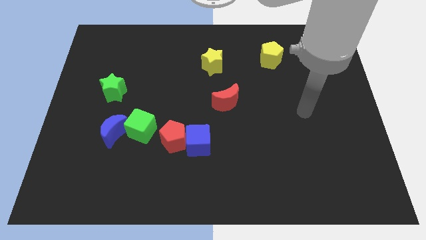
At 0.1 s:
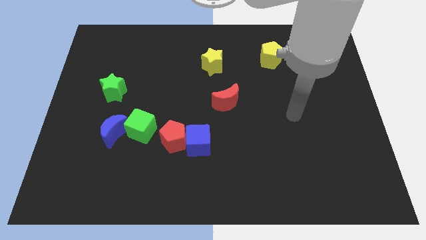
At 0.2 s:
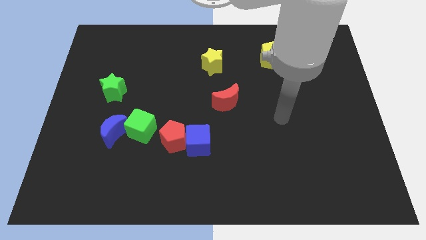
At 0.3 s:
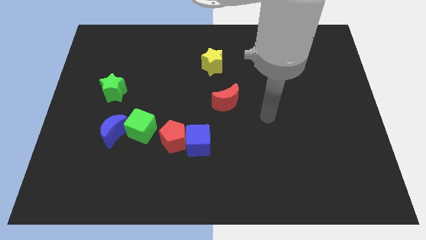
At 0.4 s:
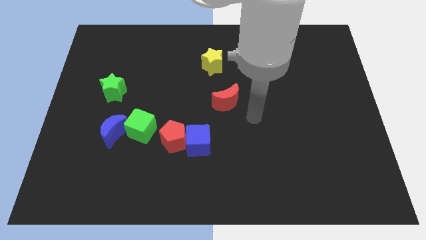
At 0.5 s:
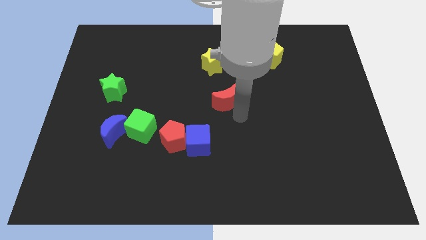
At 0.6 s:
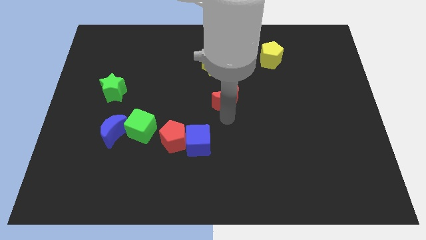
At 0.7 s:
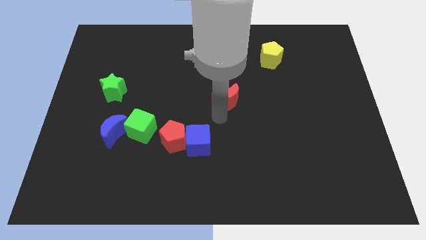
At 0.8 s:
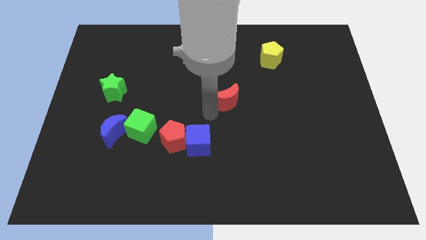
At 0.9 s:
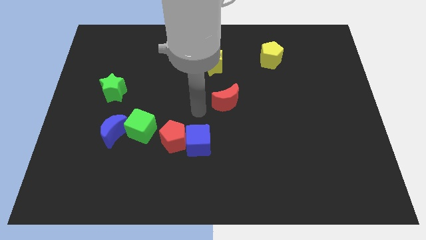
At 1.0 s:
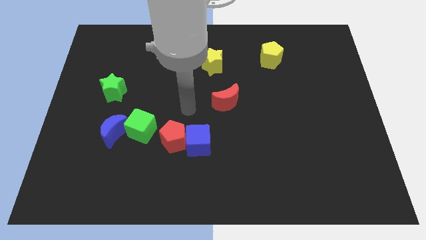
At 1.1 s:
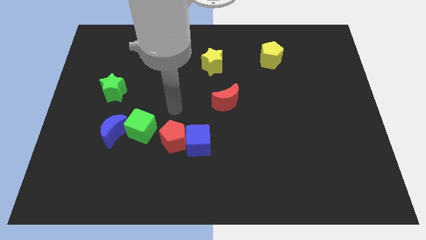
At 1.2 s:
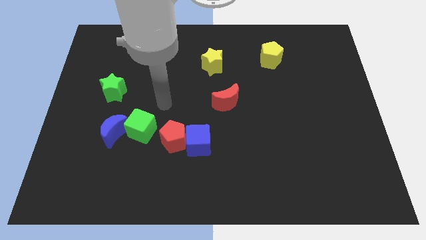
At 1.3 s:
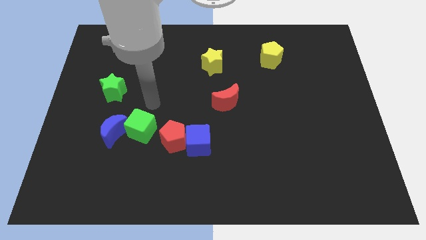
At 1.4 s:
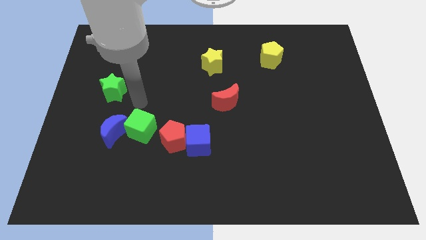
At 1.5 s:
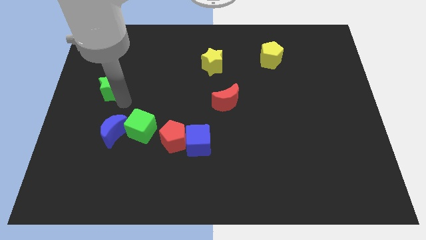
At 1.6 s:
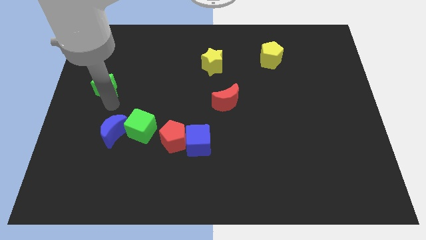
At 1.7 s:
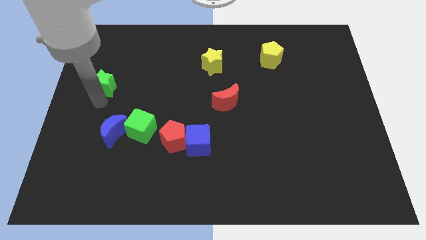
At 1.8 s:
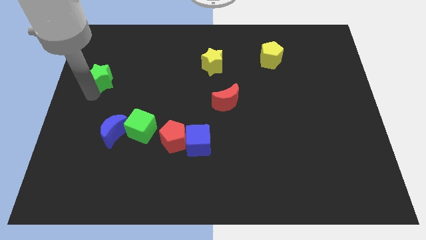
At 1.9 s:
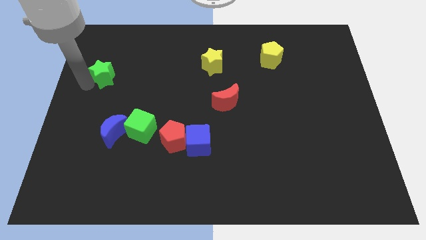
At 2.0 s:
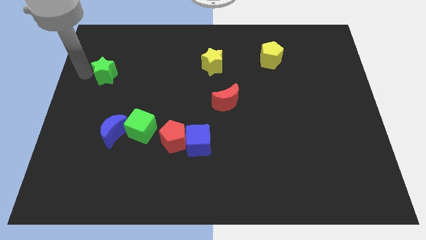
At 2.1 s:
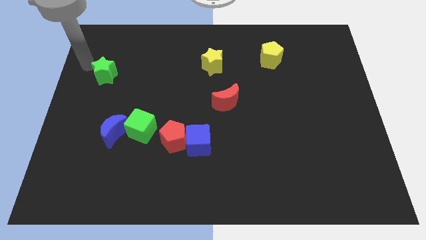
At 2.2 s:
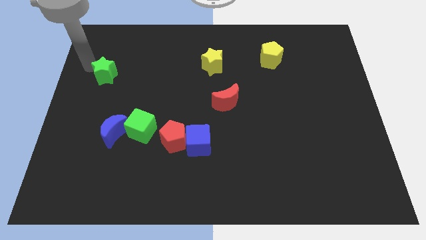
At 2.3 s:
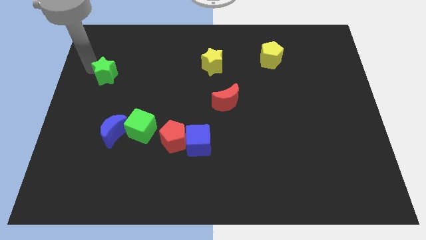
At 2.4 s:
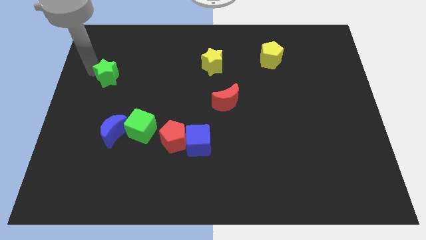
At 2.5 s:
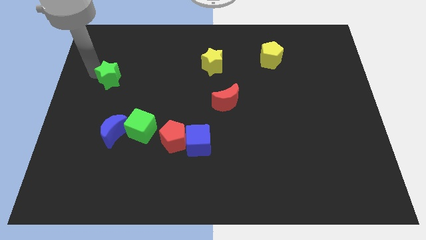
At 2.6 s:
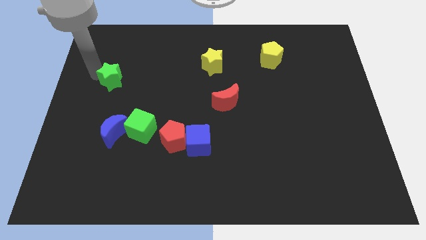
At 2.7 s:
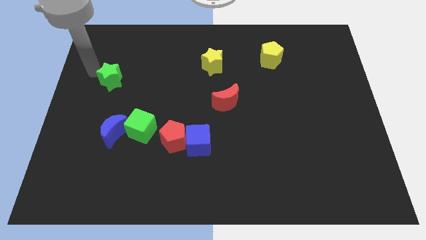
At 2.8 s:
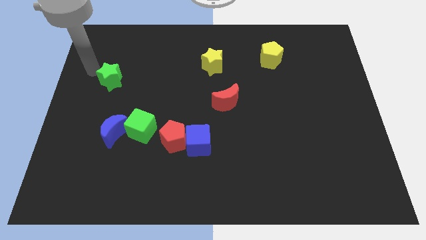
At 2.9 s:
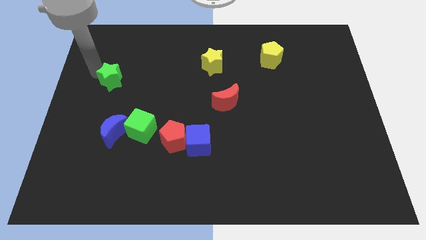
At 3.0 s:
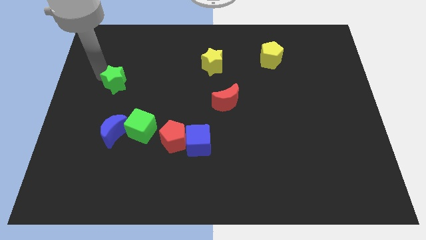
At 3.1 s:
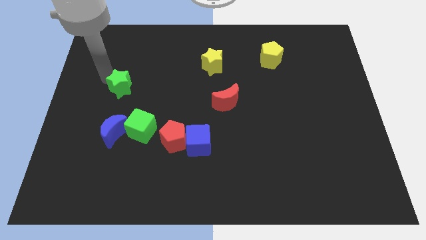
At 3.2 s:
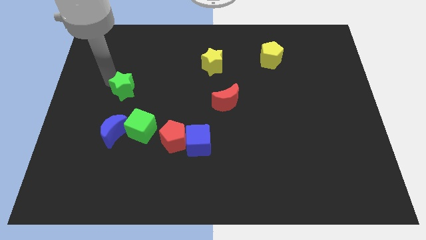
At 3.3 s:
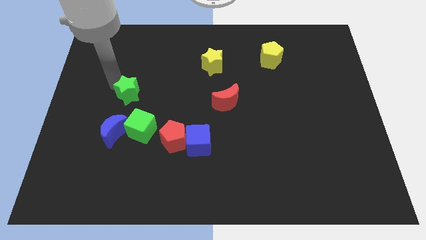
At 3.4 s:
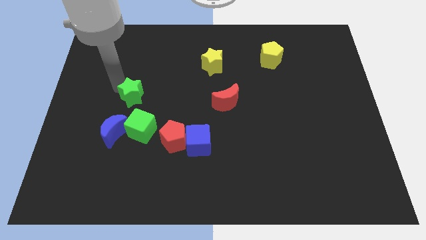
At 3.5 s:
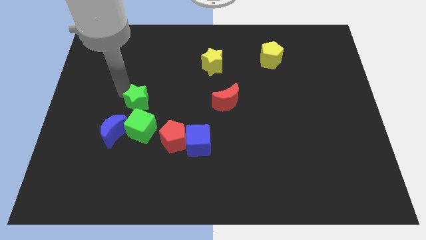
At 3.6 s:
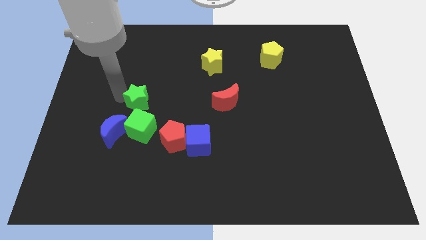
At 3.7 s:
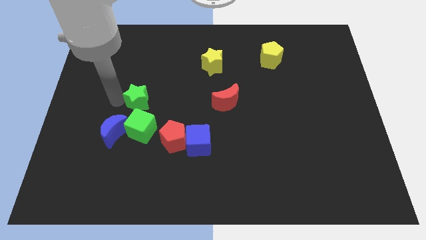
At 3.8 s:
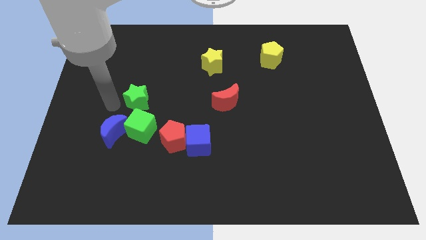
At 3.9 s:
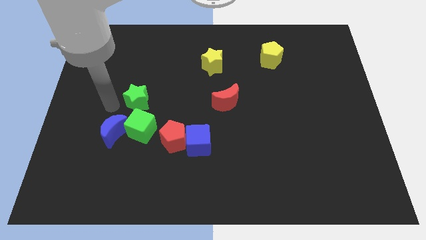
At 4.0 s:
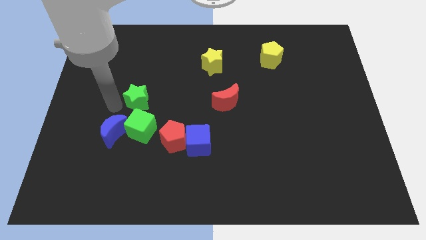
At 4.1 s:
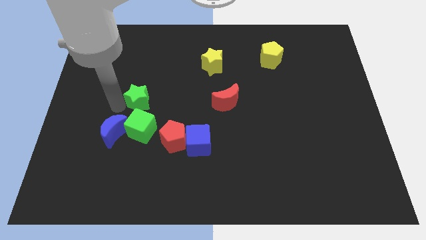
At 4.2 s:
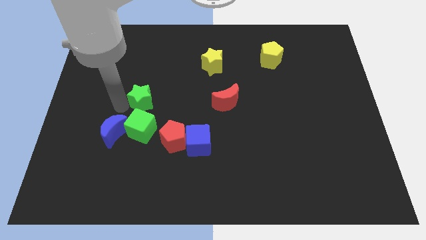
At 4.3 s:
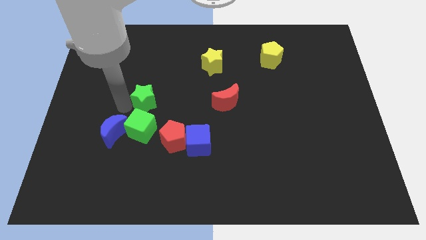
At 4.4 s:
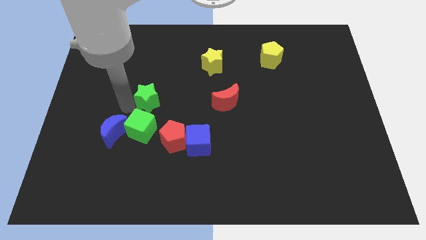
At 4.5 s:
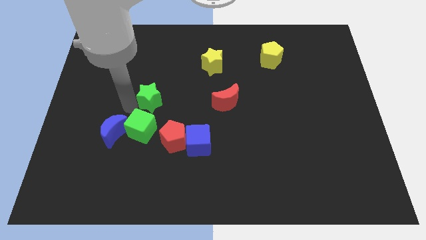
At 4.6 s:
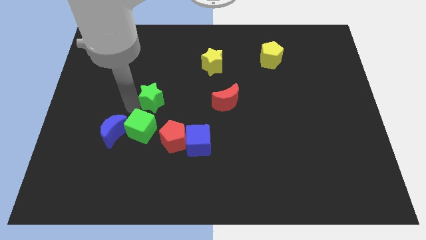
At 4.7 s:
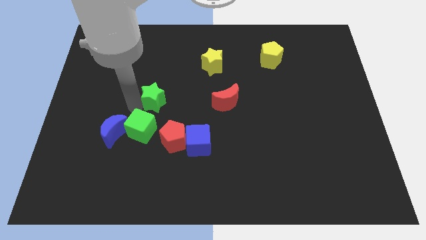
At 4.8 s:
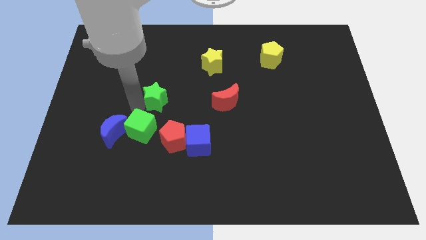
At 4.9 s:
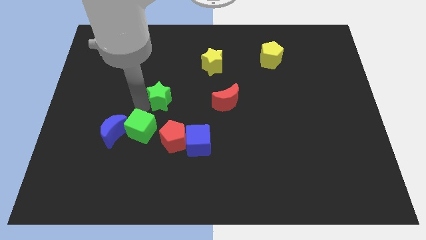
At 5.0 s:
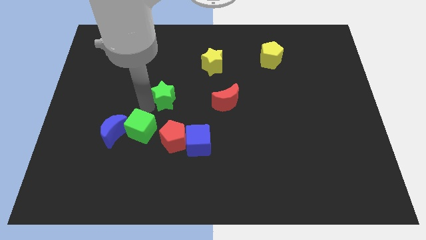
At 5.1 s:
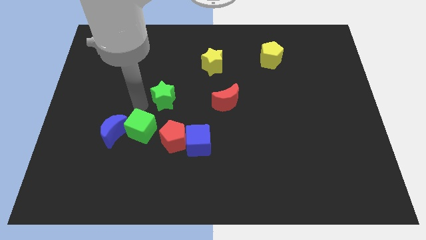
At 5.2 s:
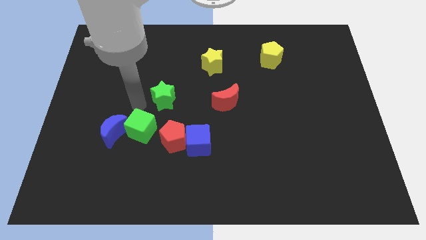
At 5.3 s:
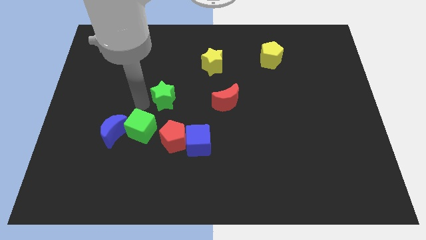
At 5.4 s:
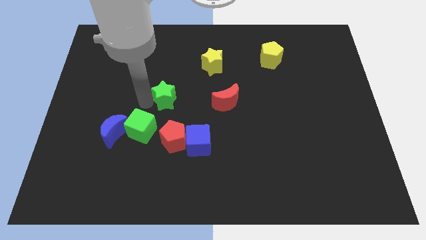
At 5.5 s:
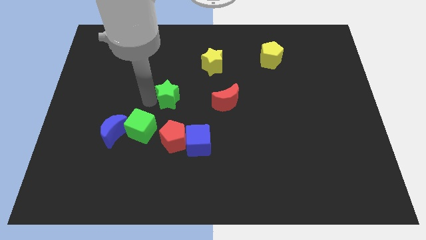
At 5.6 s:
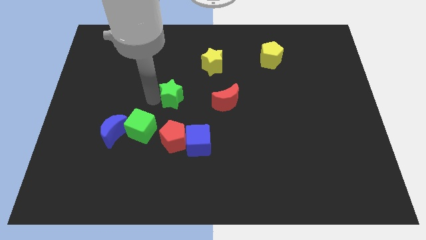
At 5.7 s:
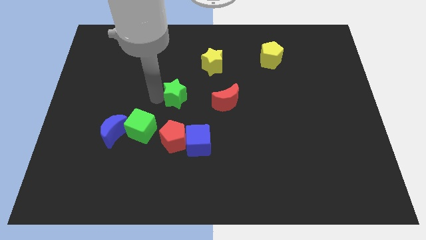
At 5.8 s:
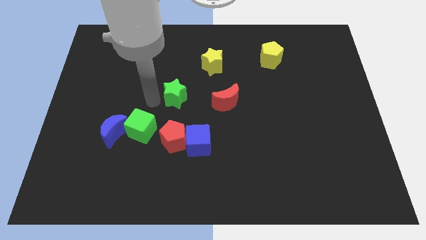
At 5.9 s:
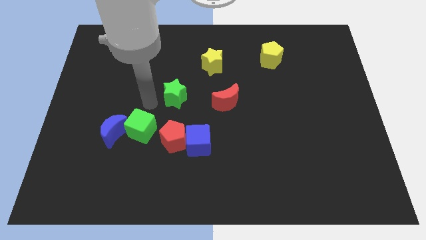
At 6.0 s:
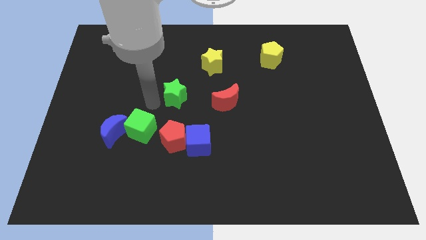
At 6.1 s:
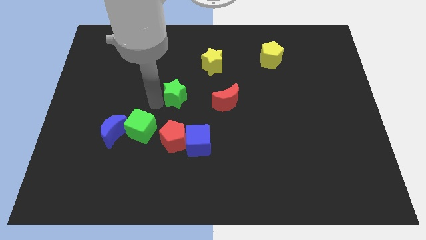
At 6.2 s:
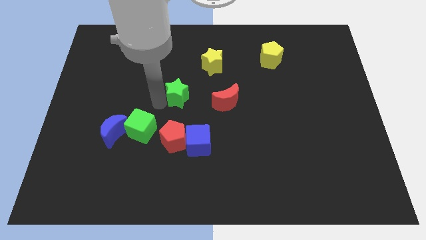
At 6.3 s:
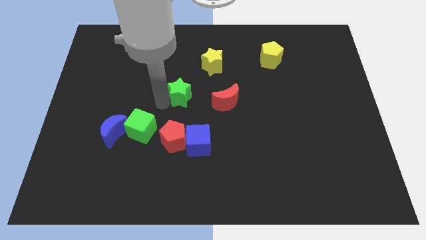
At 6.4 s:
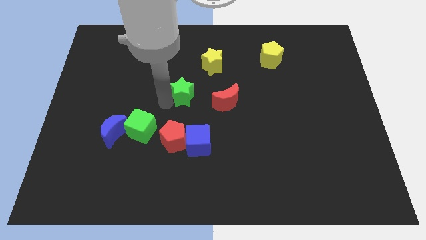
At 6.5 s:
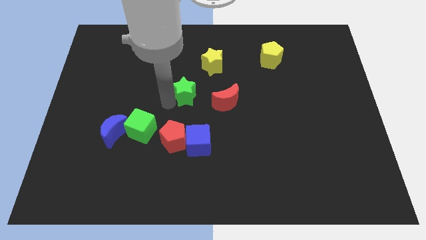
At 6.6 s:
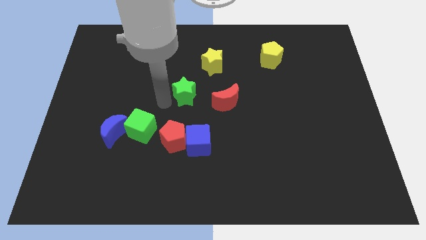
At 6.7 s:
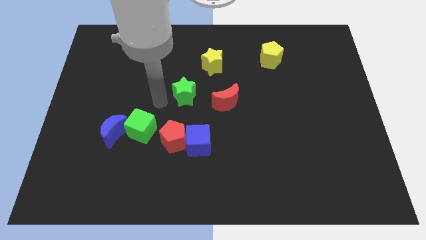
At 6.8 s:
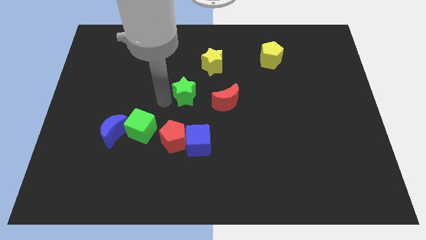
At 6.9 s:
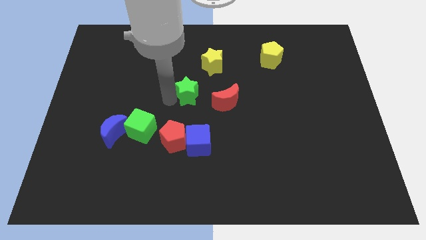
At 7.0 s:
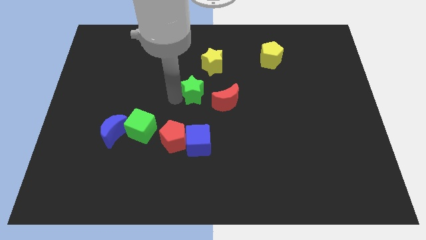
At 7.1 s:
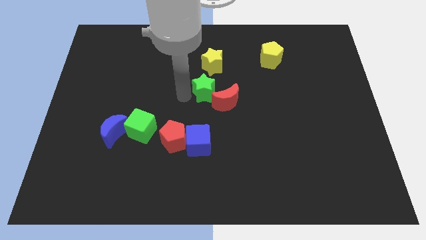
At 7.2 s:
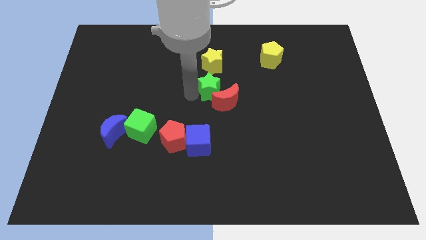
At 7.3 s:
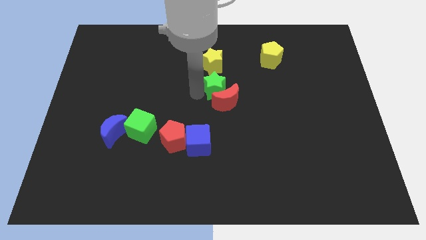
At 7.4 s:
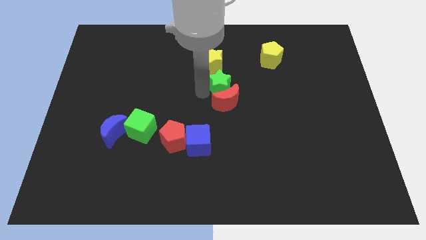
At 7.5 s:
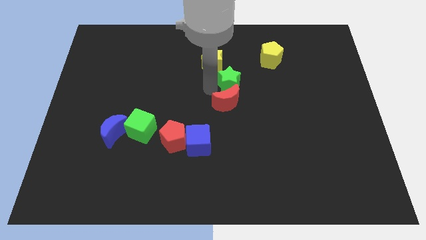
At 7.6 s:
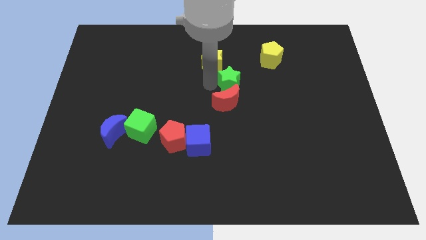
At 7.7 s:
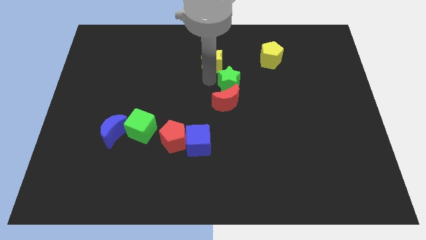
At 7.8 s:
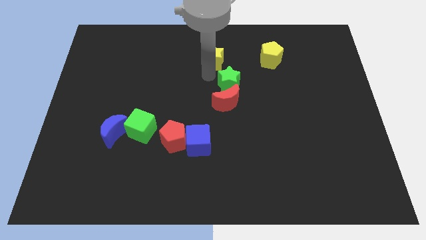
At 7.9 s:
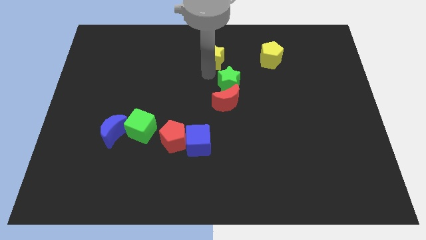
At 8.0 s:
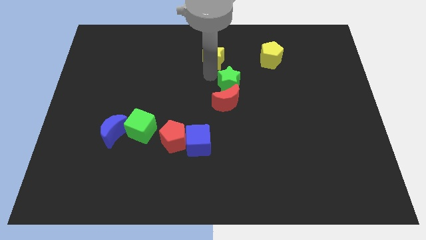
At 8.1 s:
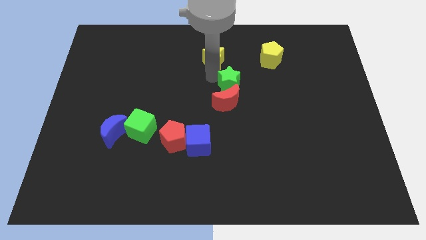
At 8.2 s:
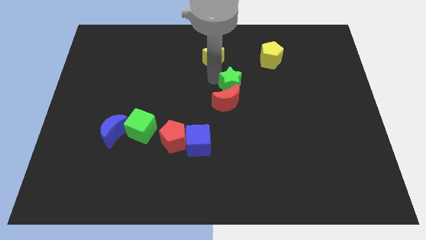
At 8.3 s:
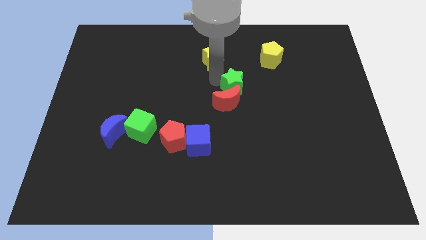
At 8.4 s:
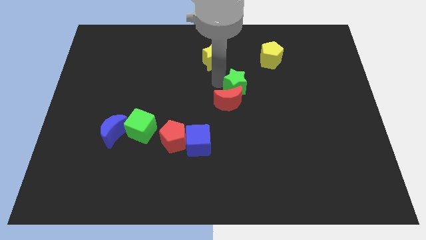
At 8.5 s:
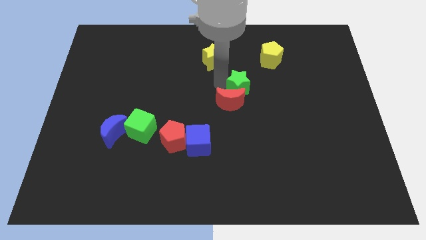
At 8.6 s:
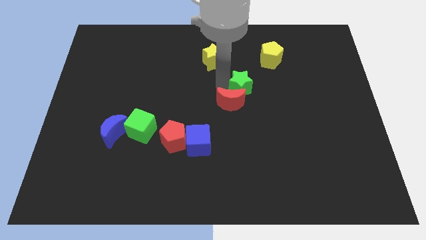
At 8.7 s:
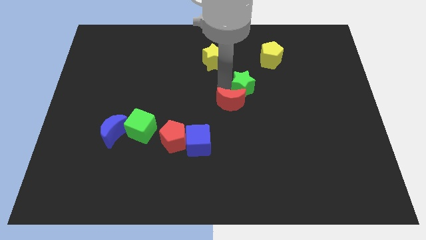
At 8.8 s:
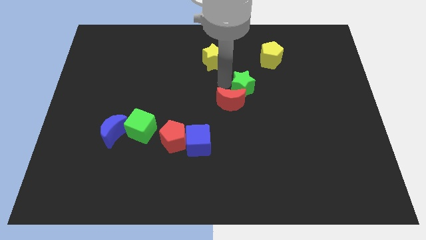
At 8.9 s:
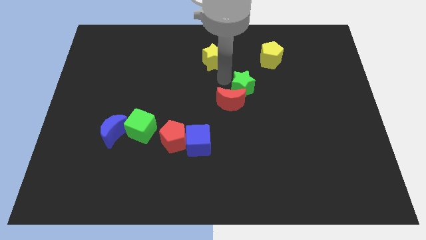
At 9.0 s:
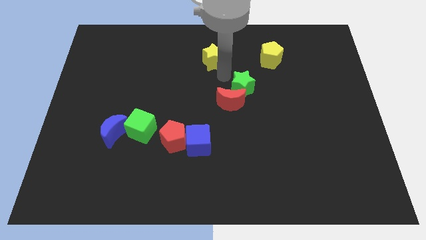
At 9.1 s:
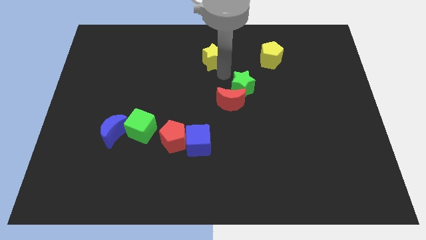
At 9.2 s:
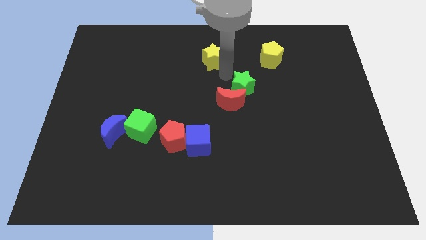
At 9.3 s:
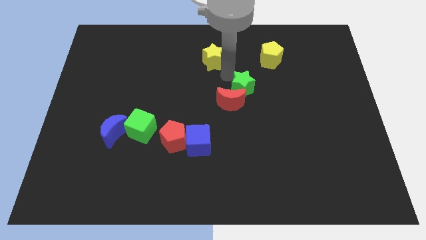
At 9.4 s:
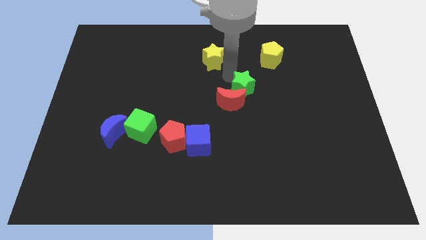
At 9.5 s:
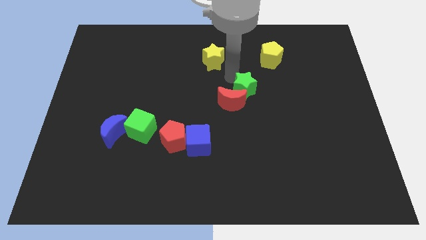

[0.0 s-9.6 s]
put the green star right of the red moon
